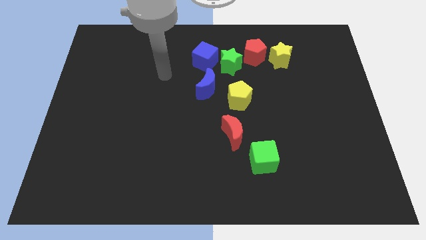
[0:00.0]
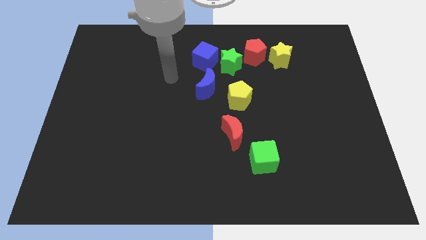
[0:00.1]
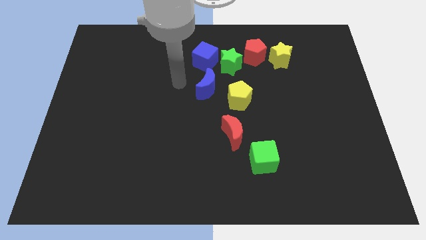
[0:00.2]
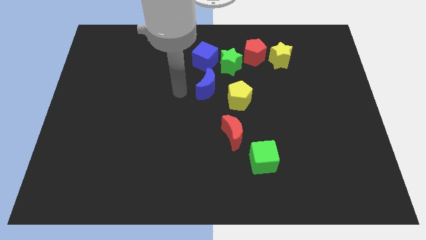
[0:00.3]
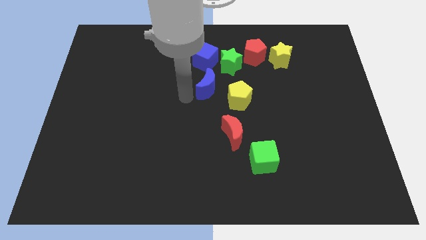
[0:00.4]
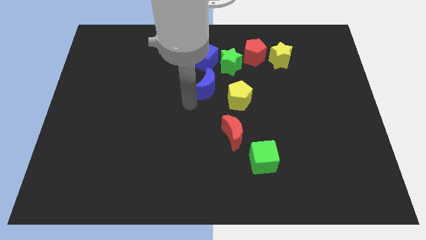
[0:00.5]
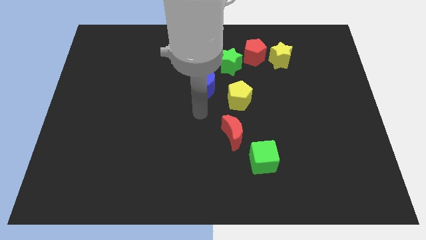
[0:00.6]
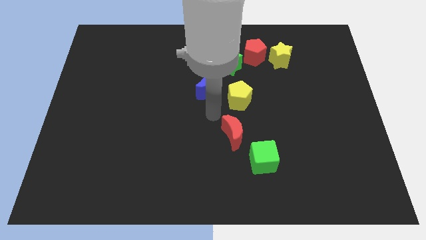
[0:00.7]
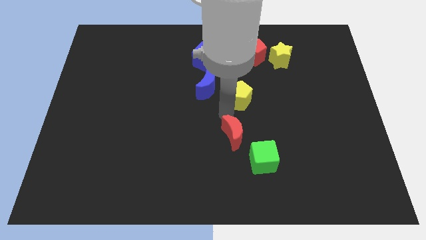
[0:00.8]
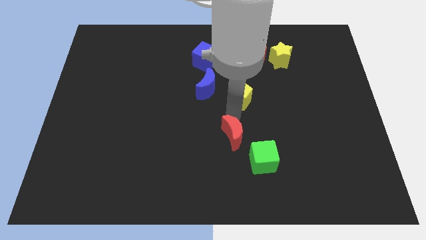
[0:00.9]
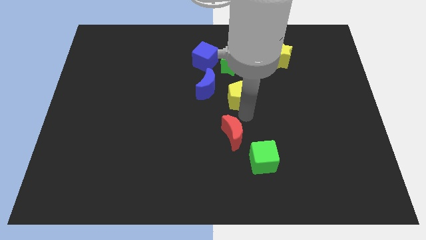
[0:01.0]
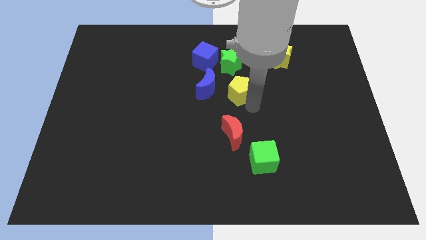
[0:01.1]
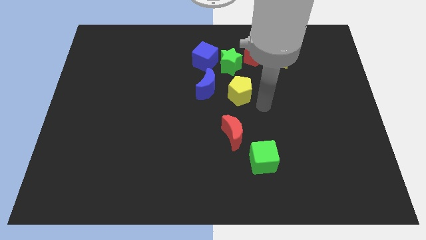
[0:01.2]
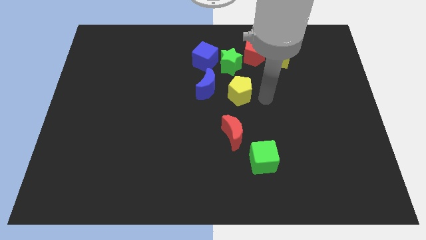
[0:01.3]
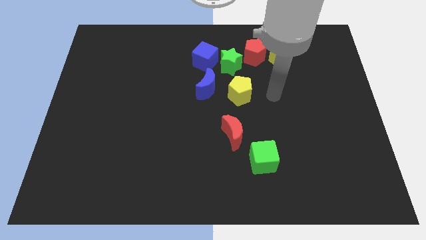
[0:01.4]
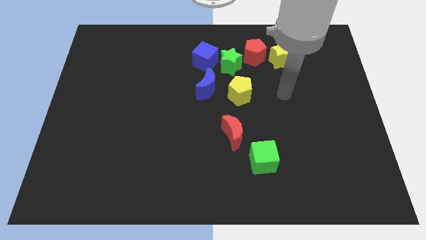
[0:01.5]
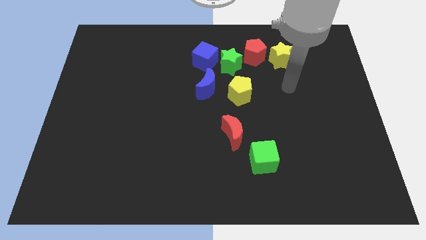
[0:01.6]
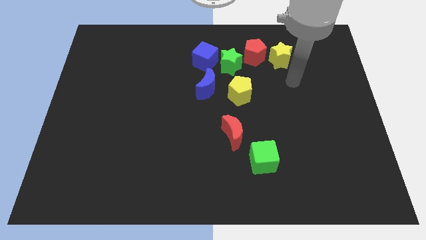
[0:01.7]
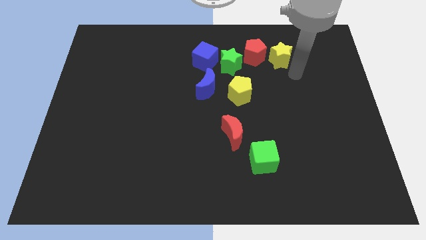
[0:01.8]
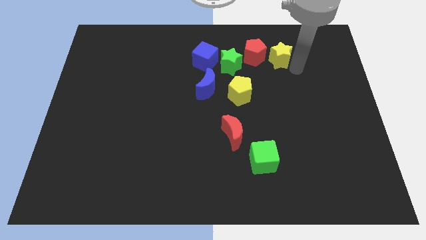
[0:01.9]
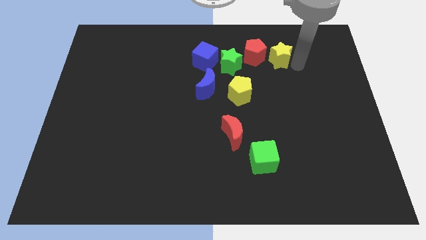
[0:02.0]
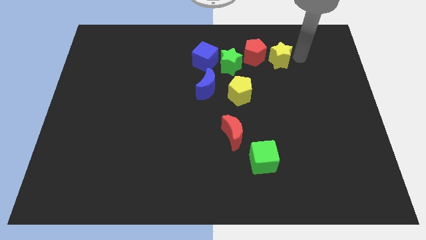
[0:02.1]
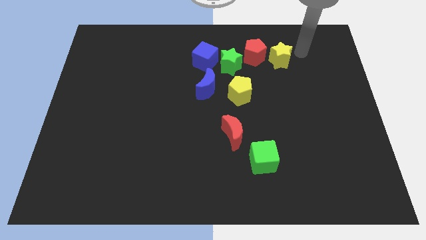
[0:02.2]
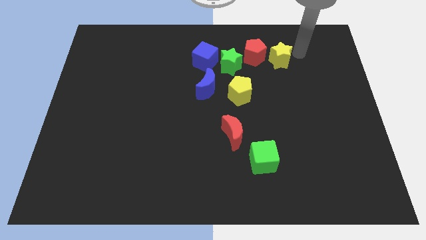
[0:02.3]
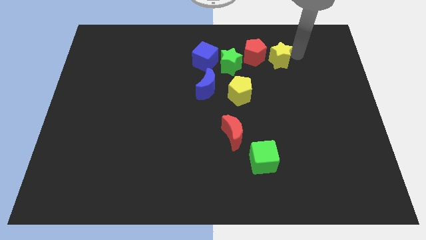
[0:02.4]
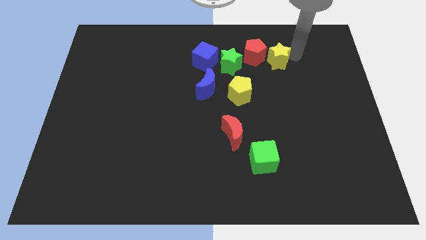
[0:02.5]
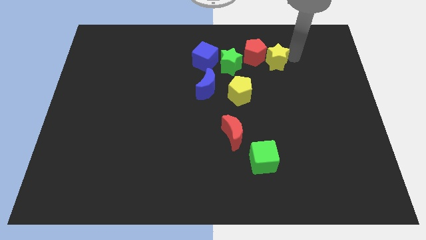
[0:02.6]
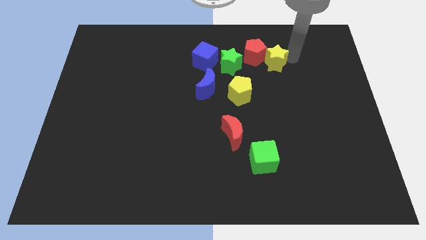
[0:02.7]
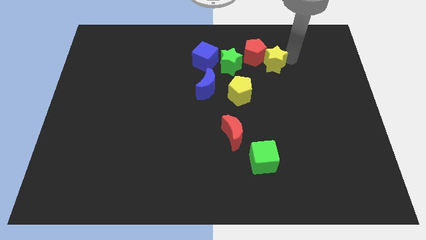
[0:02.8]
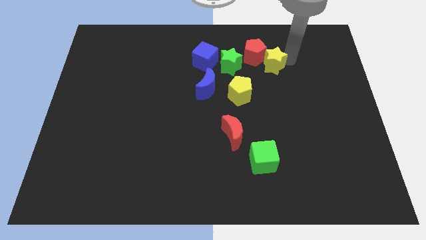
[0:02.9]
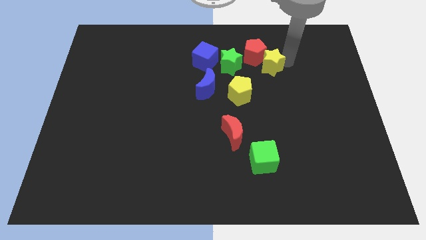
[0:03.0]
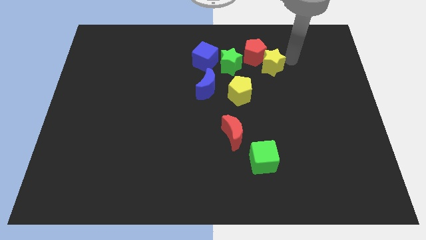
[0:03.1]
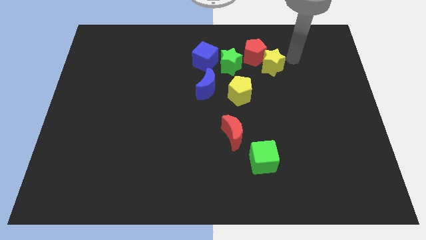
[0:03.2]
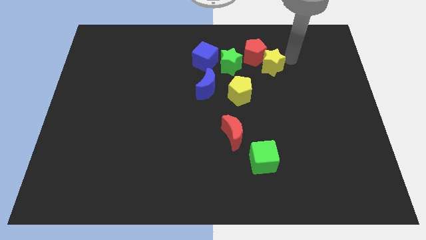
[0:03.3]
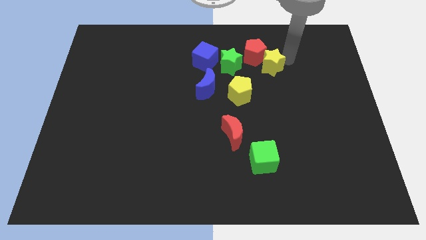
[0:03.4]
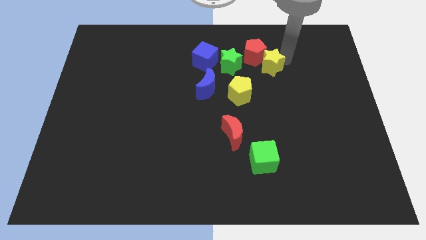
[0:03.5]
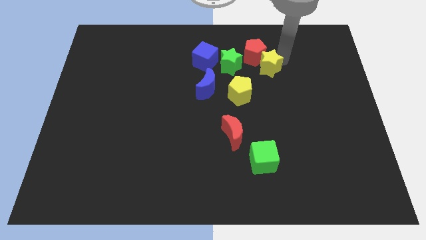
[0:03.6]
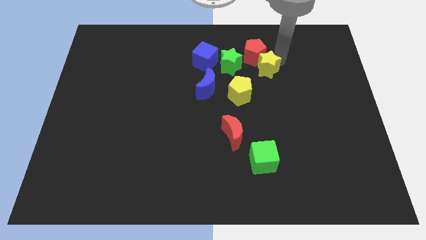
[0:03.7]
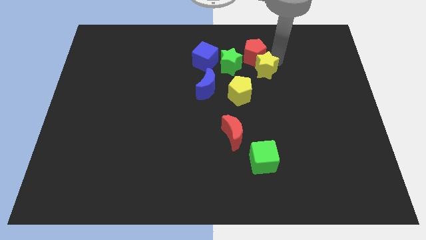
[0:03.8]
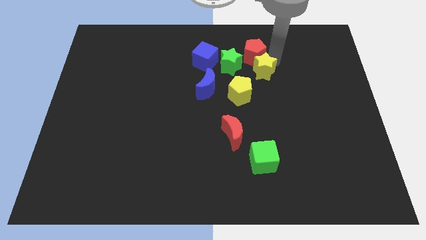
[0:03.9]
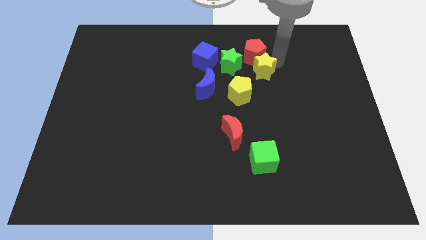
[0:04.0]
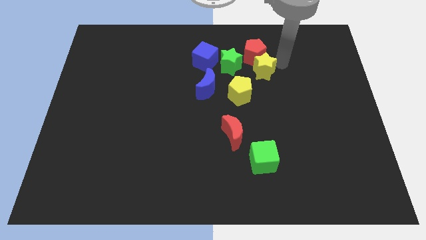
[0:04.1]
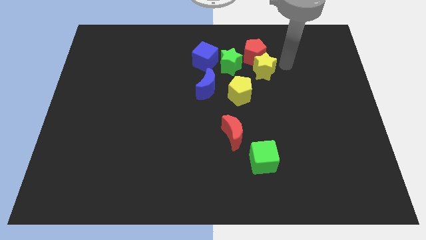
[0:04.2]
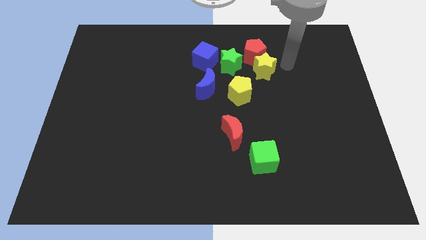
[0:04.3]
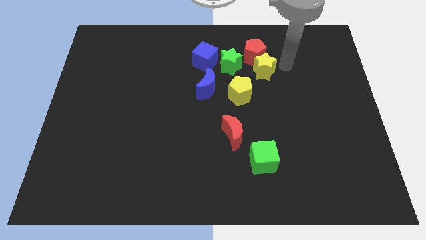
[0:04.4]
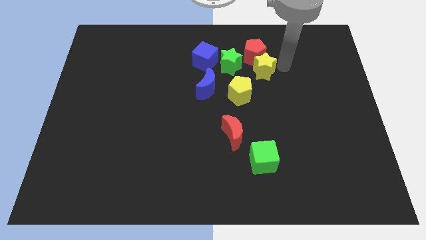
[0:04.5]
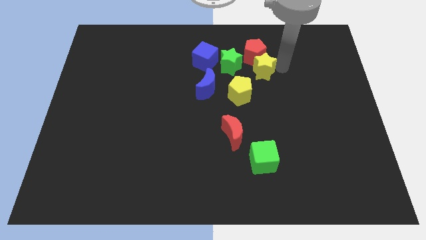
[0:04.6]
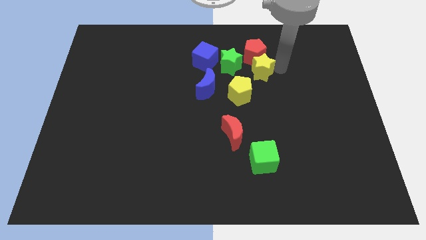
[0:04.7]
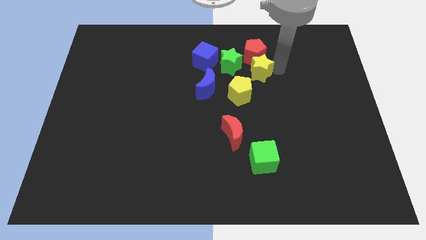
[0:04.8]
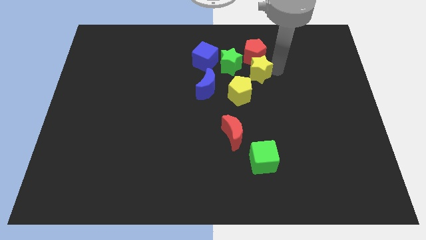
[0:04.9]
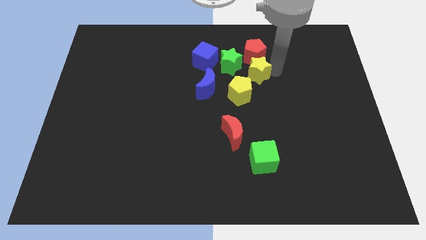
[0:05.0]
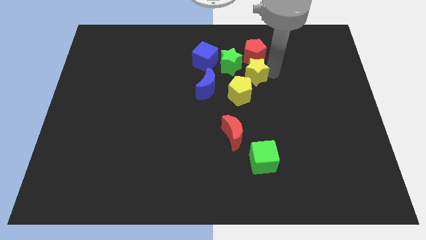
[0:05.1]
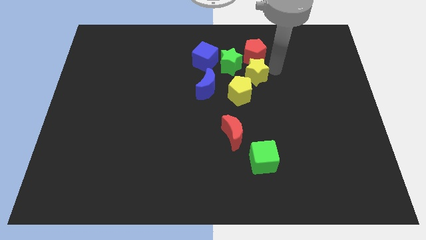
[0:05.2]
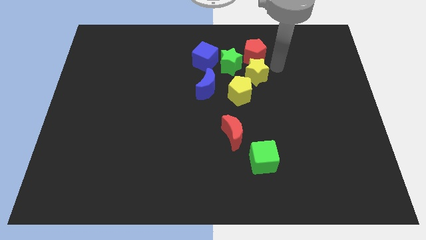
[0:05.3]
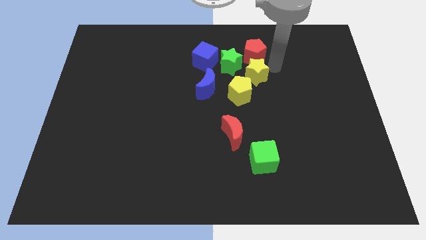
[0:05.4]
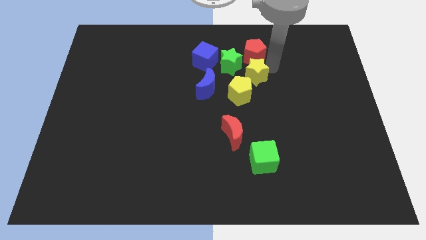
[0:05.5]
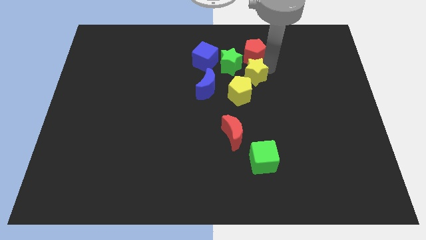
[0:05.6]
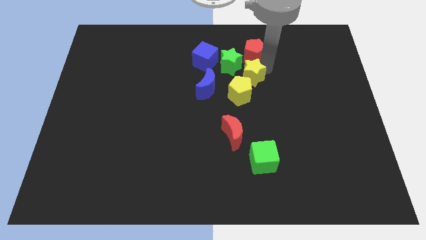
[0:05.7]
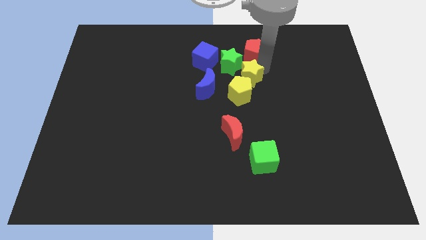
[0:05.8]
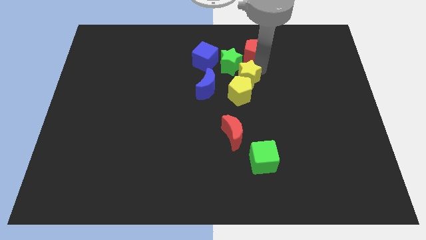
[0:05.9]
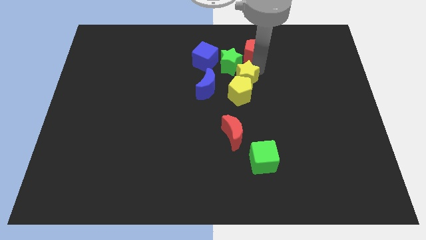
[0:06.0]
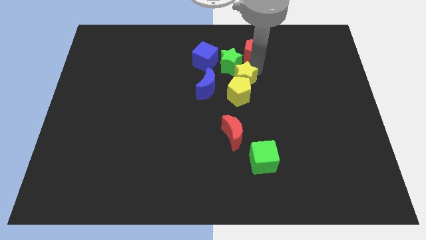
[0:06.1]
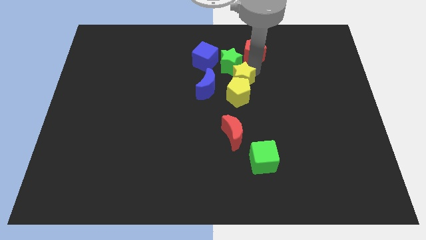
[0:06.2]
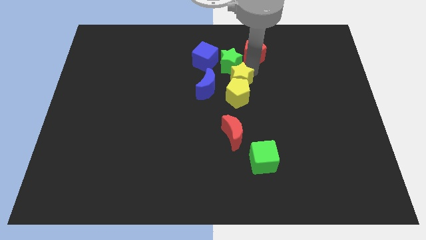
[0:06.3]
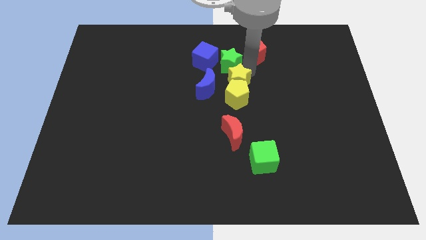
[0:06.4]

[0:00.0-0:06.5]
move the yellow star to the top side of the red moon

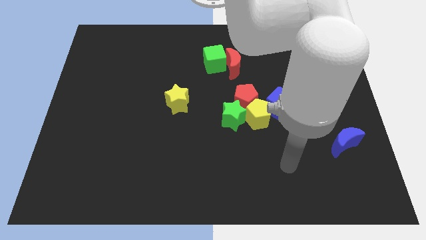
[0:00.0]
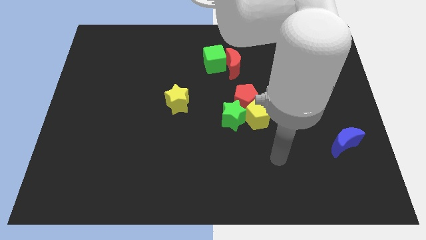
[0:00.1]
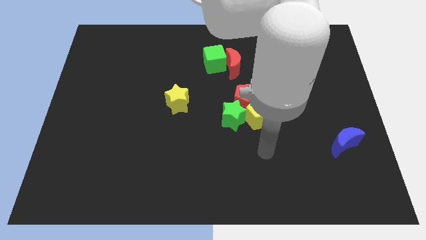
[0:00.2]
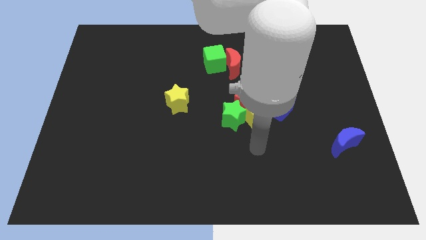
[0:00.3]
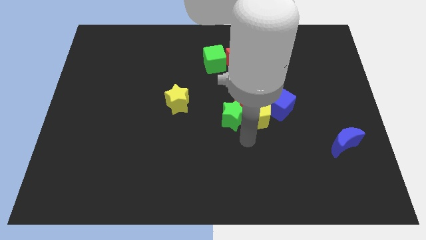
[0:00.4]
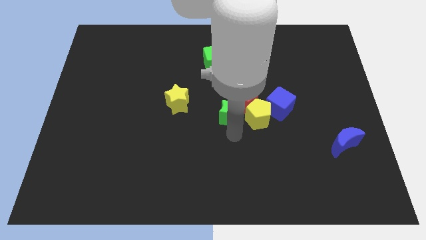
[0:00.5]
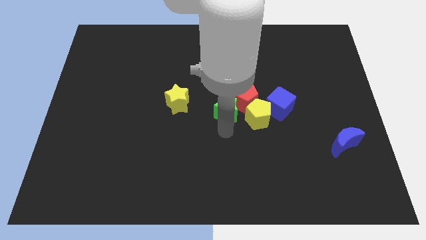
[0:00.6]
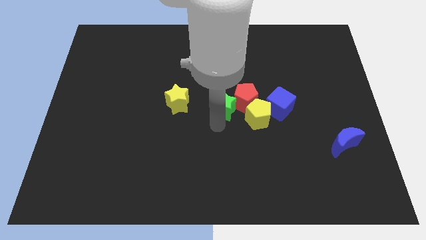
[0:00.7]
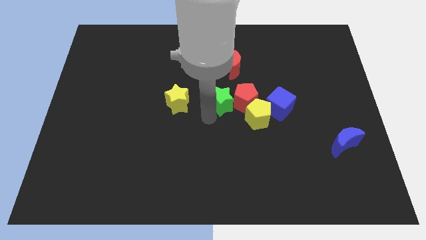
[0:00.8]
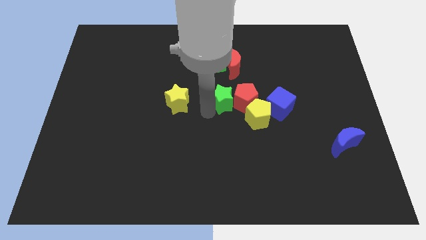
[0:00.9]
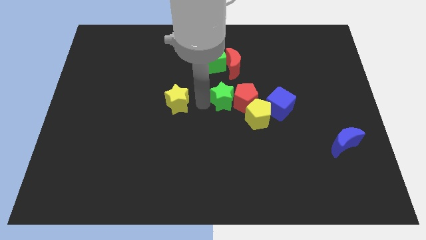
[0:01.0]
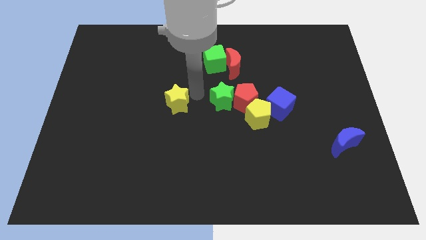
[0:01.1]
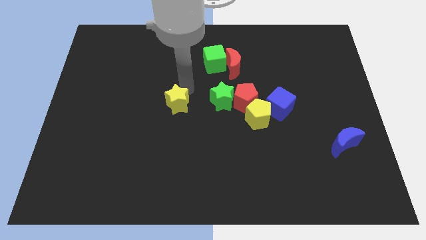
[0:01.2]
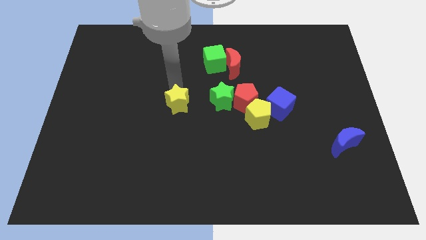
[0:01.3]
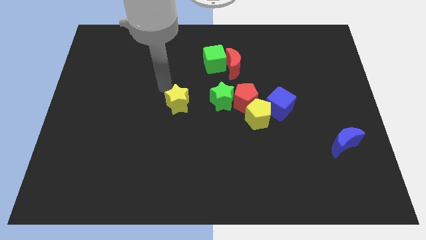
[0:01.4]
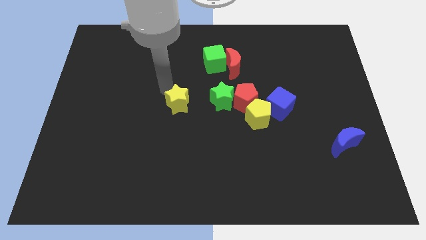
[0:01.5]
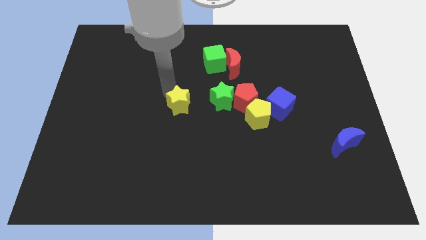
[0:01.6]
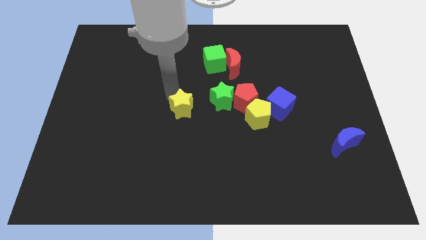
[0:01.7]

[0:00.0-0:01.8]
slide the yellow star to the bottom left of the green star
